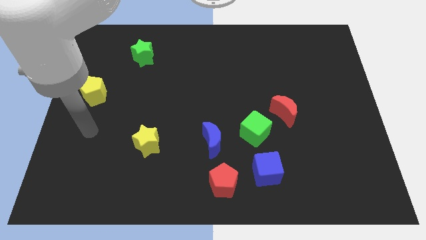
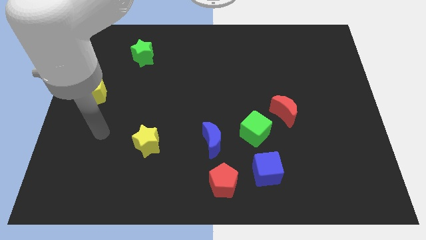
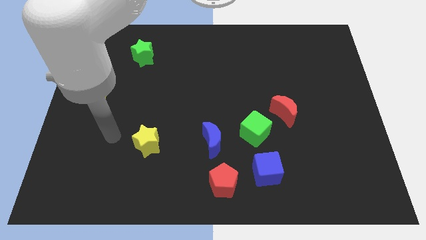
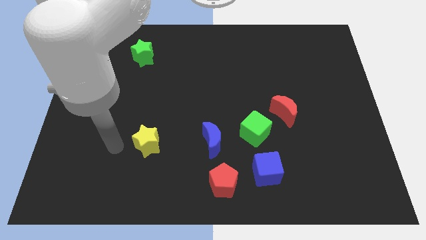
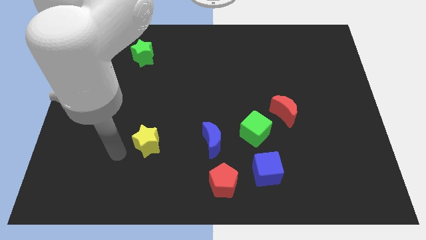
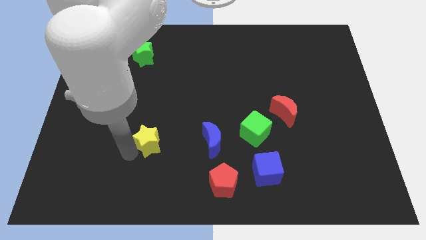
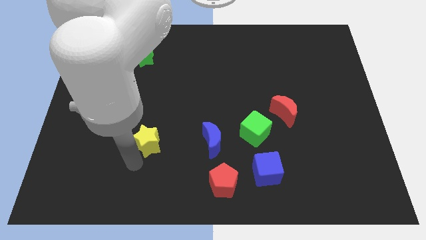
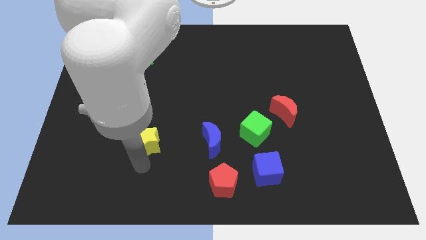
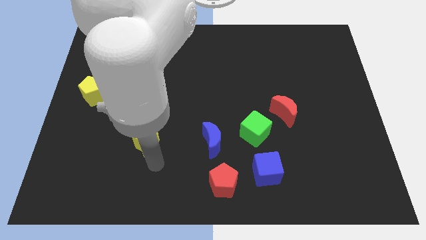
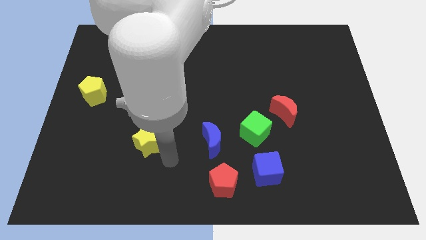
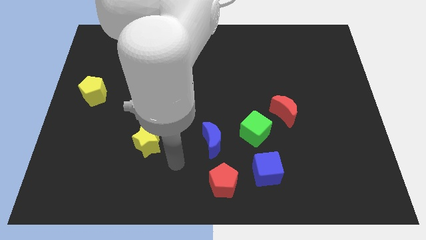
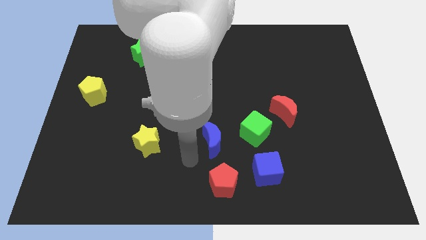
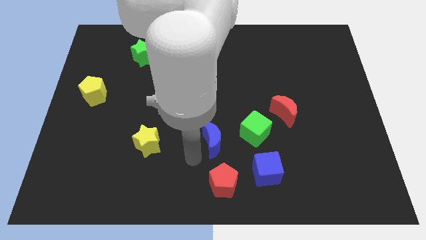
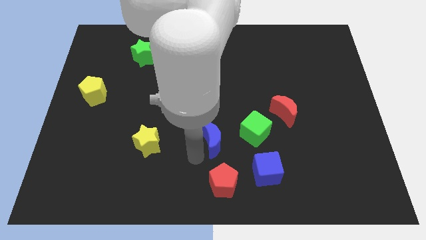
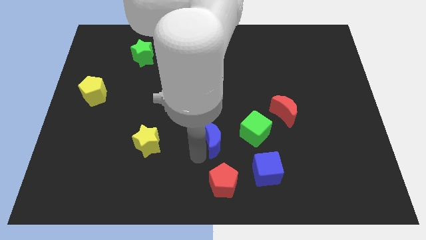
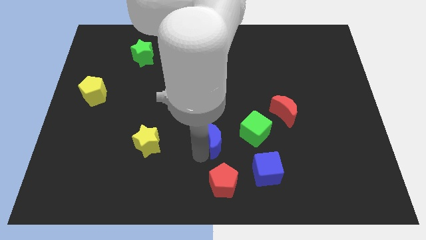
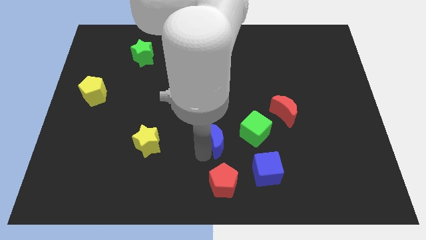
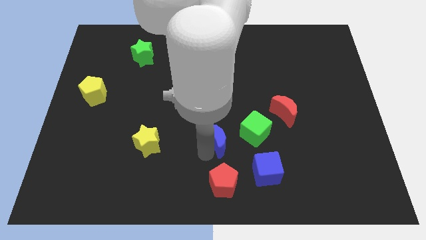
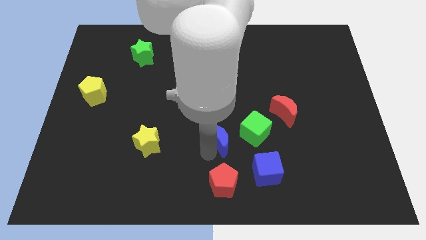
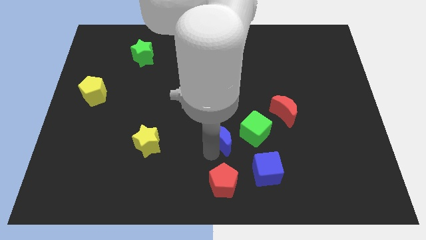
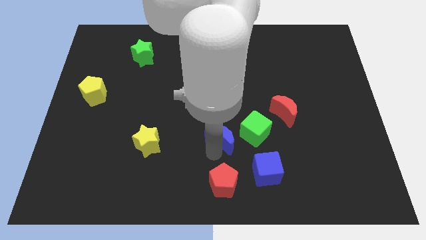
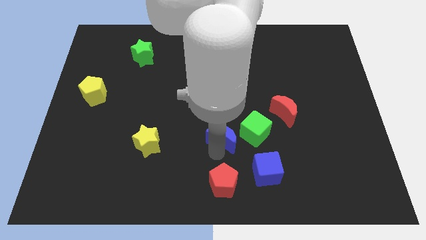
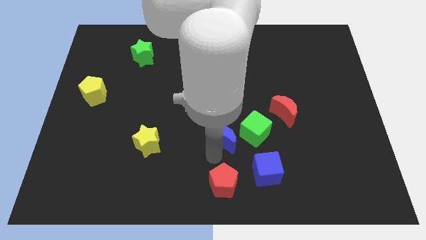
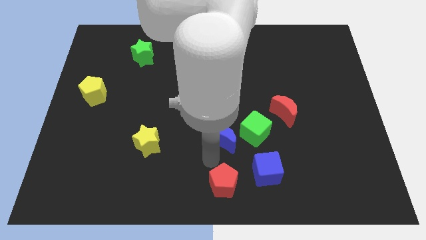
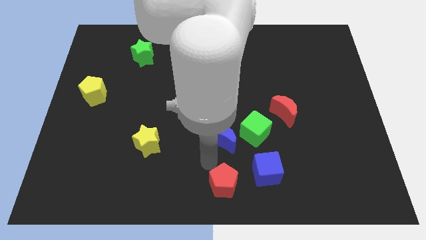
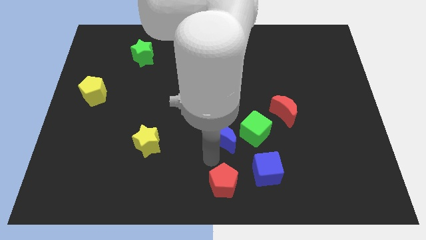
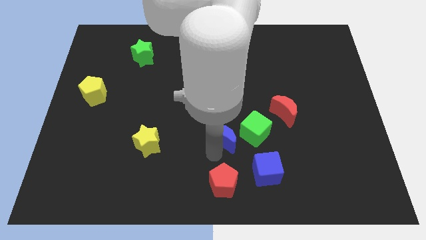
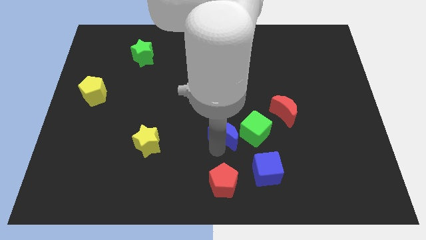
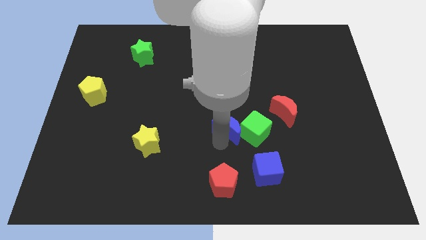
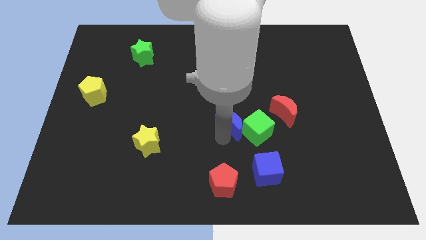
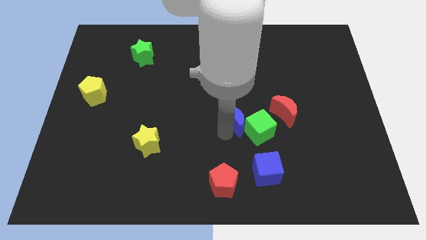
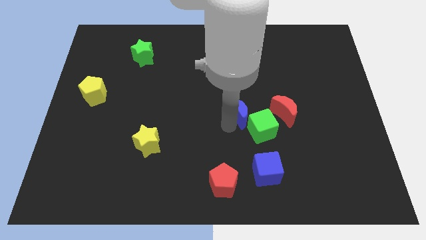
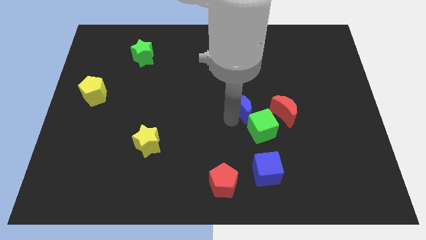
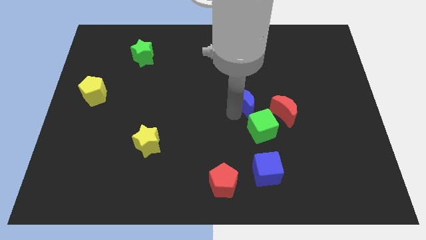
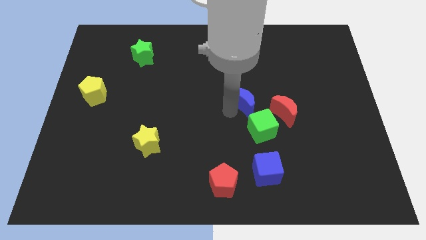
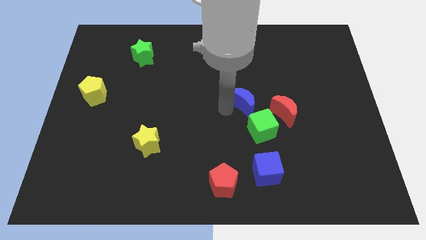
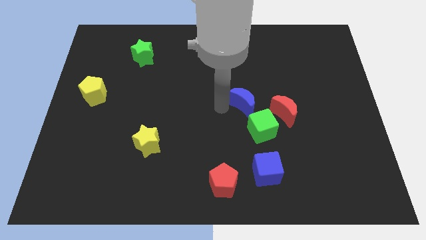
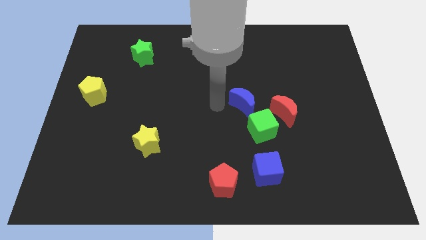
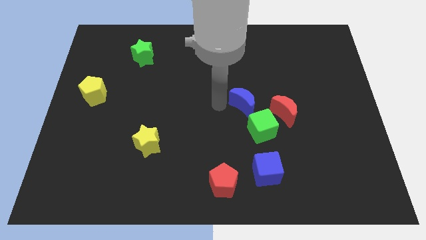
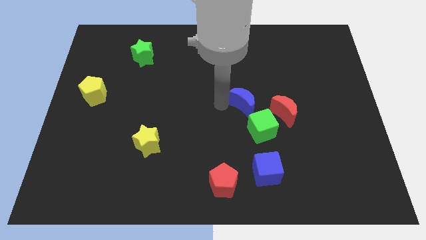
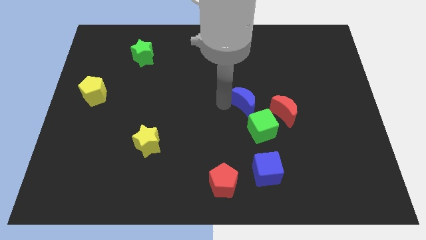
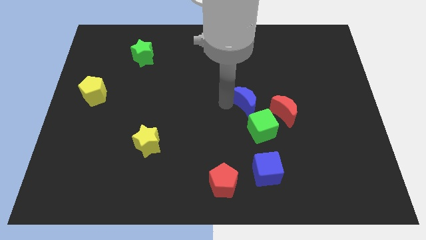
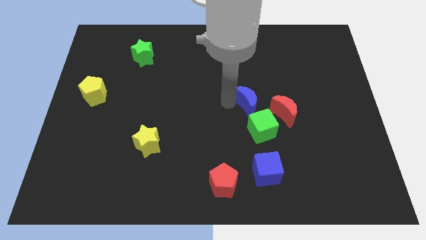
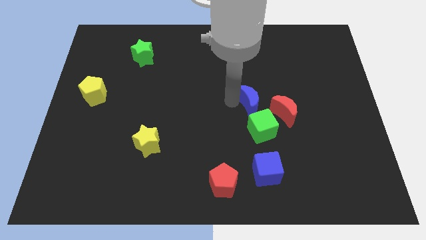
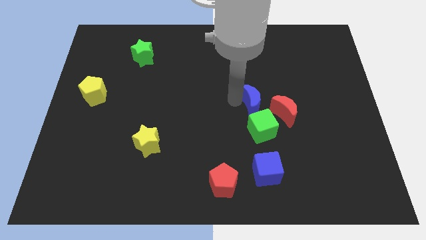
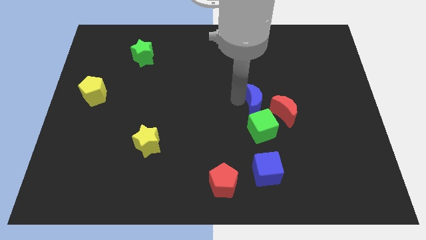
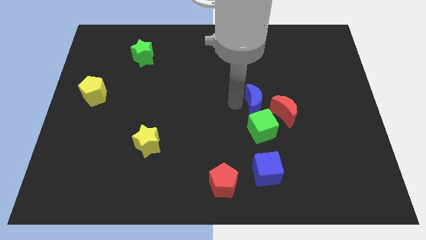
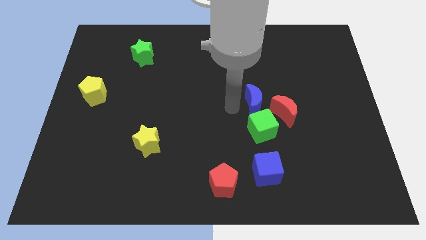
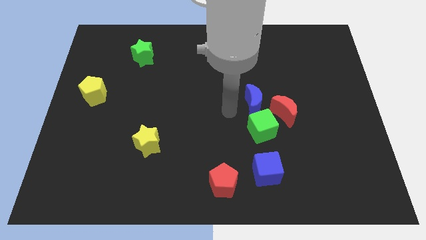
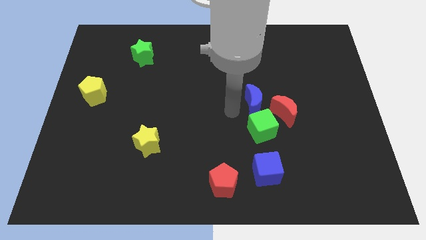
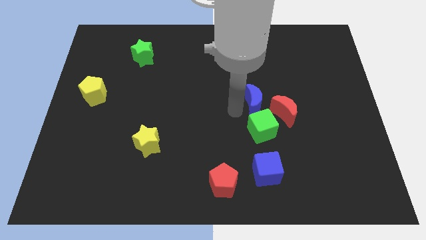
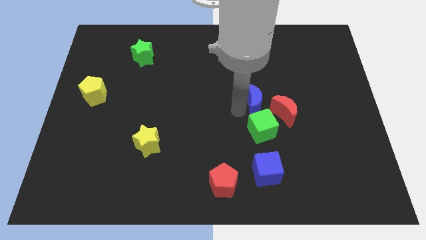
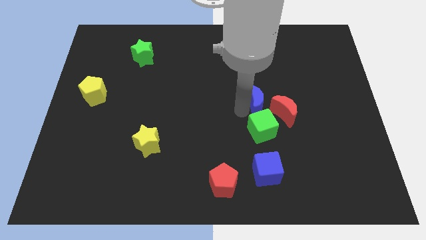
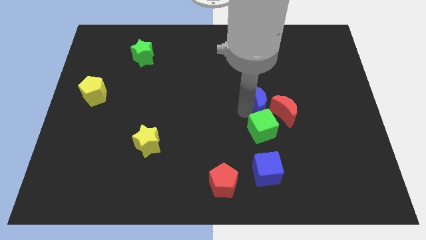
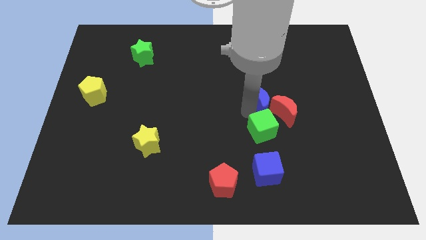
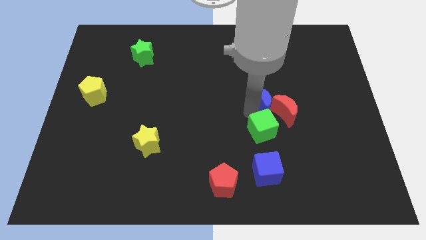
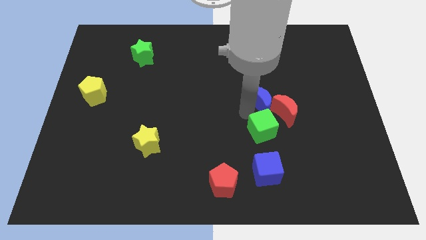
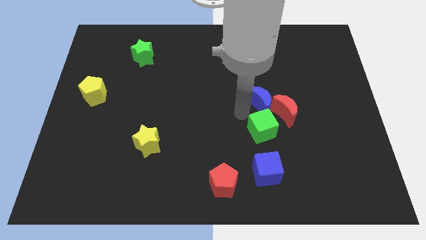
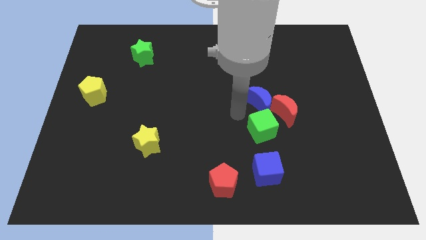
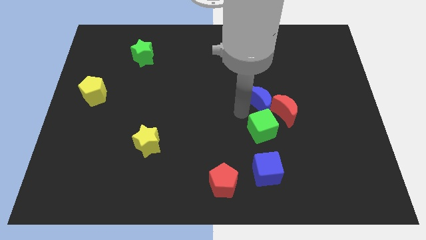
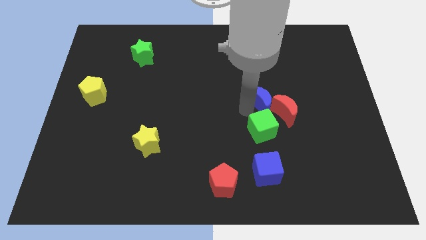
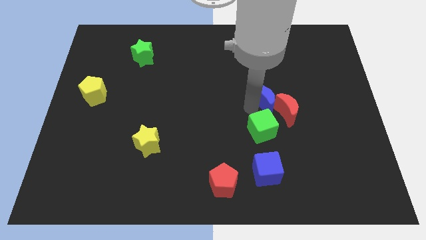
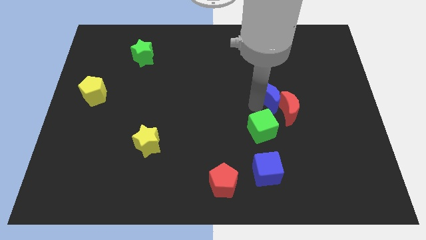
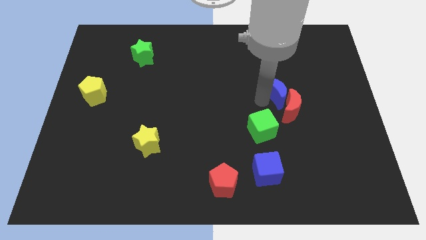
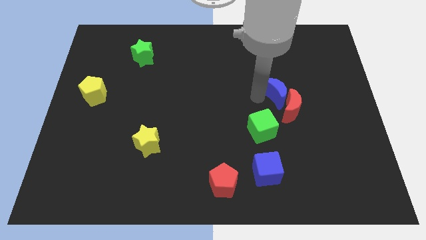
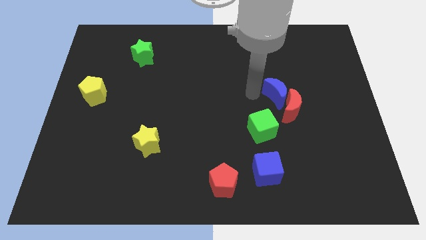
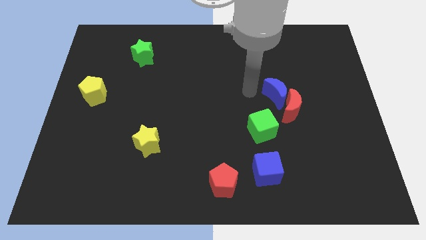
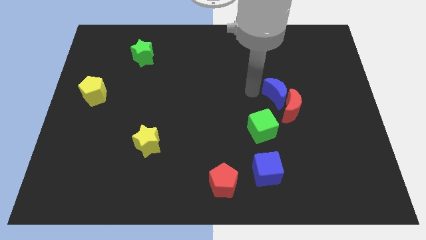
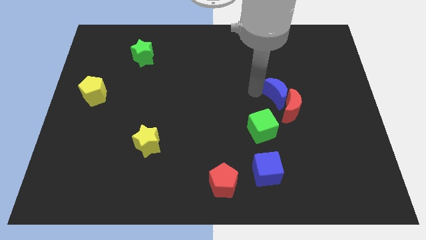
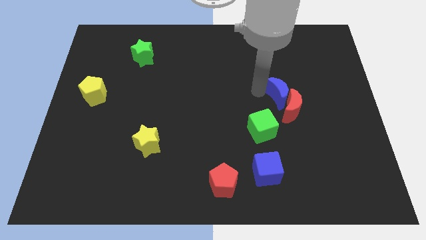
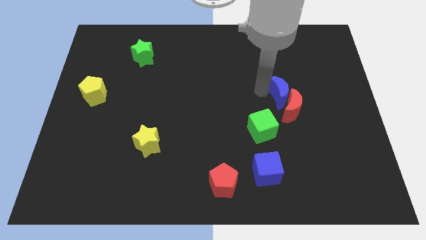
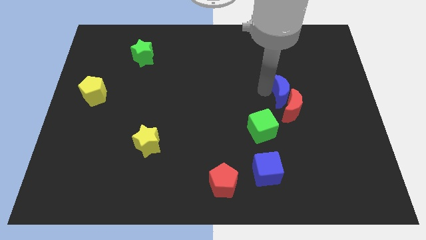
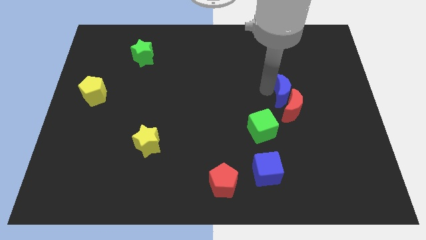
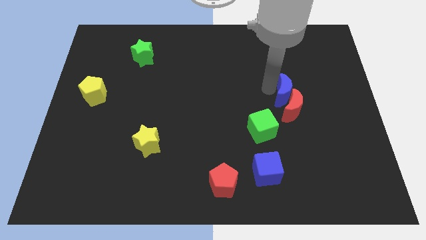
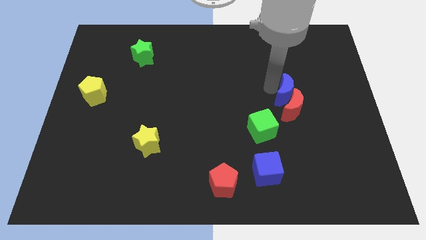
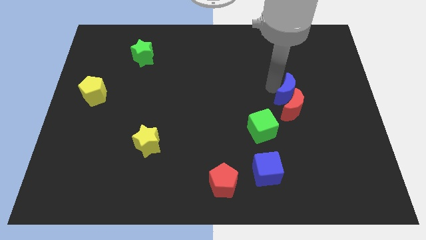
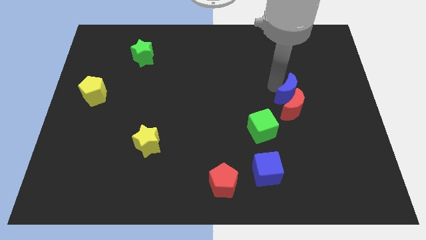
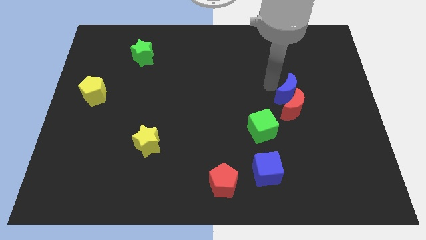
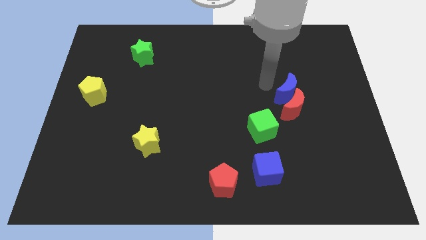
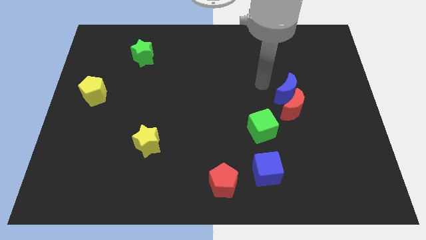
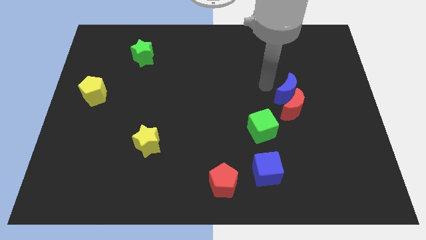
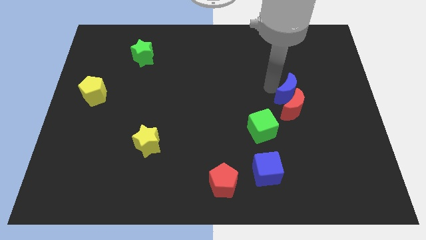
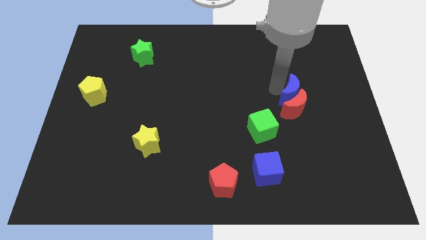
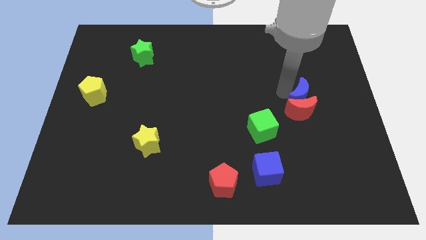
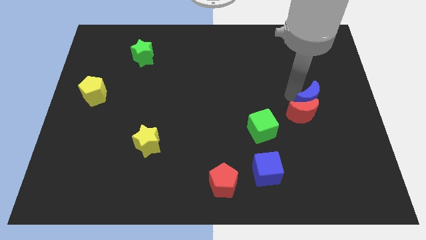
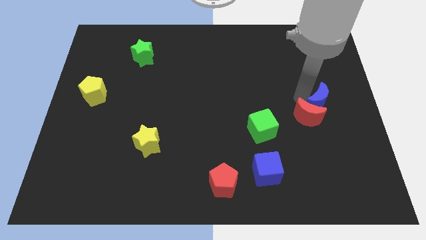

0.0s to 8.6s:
push the blue moon to the right side of the red moon
